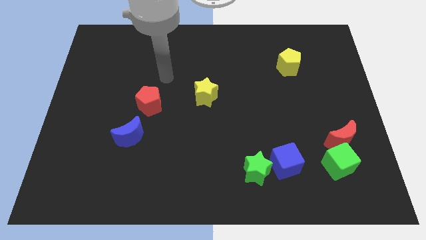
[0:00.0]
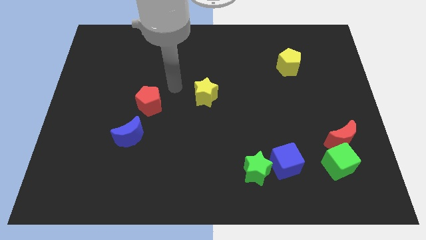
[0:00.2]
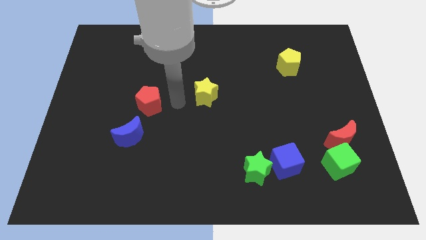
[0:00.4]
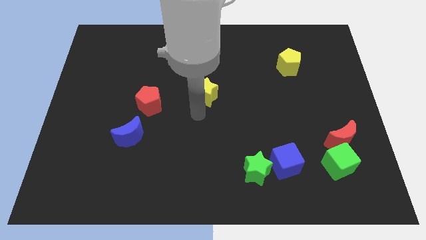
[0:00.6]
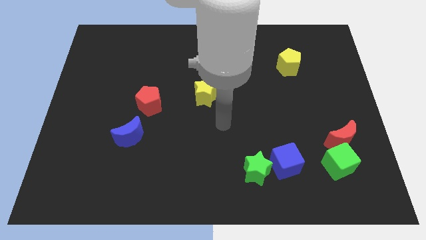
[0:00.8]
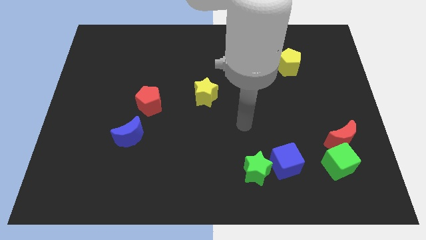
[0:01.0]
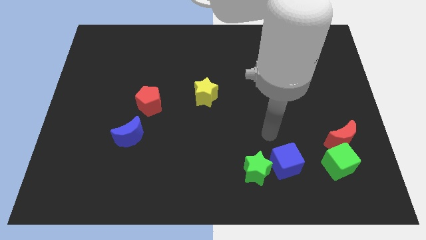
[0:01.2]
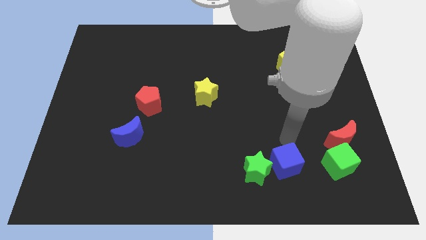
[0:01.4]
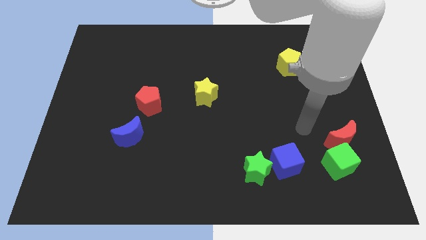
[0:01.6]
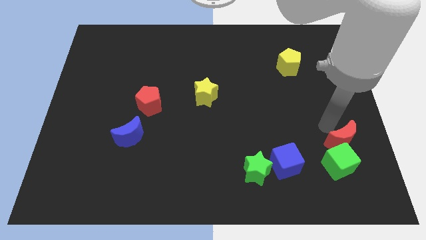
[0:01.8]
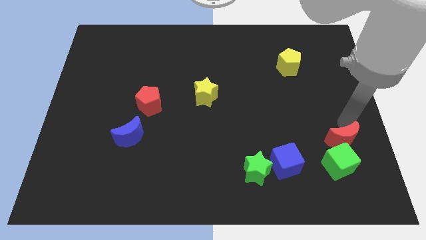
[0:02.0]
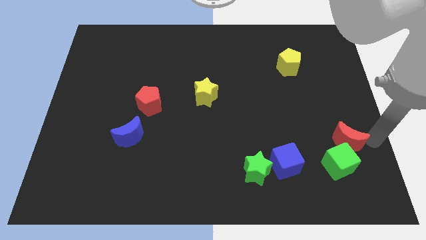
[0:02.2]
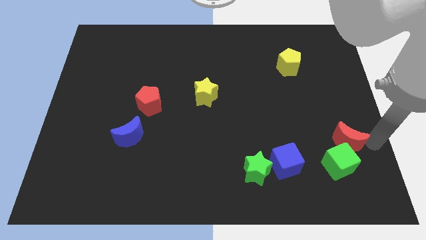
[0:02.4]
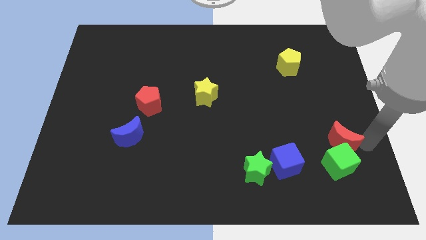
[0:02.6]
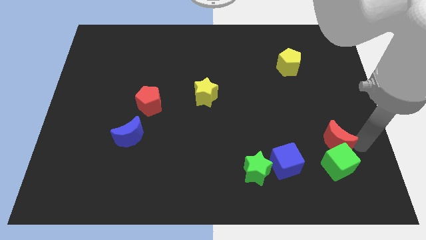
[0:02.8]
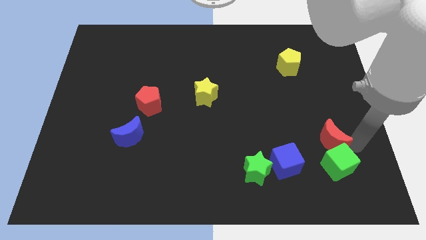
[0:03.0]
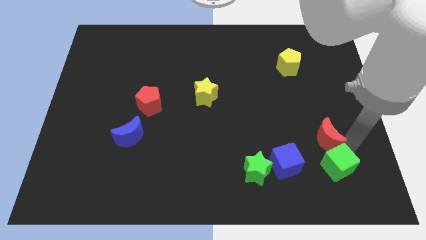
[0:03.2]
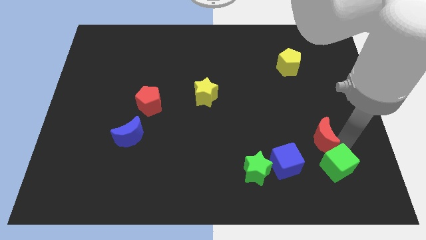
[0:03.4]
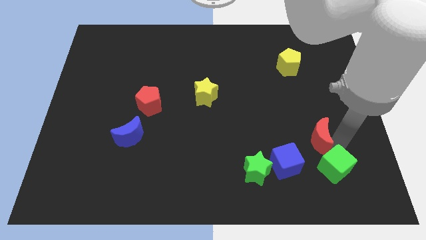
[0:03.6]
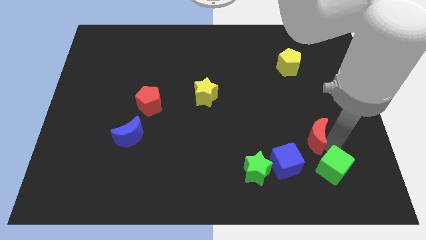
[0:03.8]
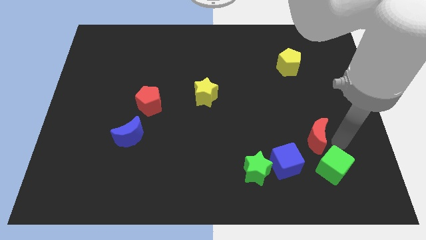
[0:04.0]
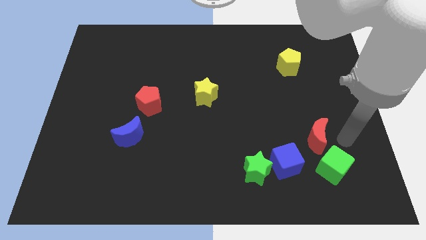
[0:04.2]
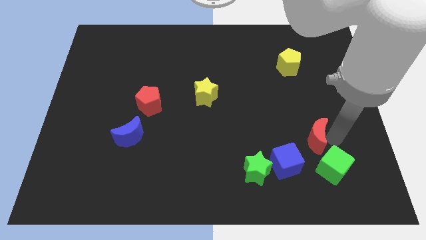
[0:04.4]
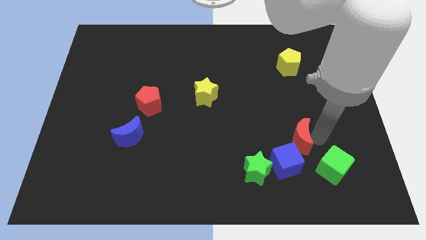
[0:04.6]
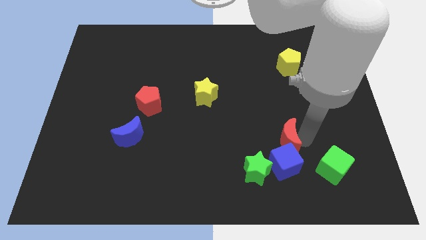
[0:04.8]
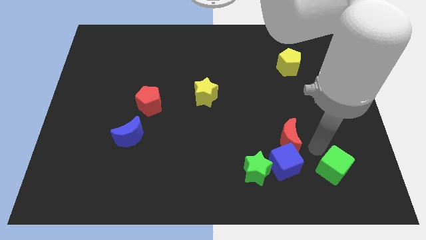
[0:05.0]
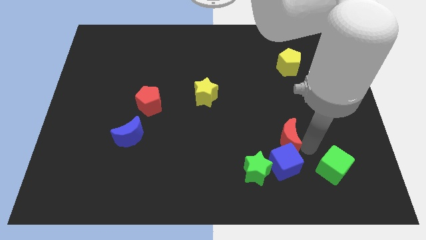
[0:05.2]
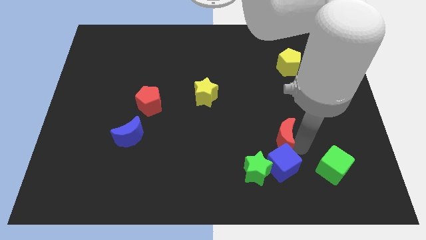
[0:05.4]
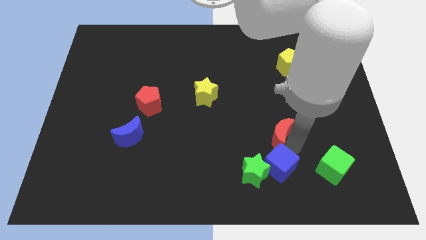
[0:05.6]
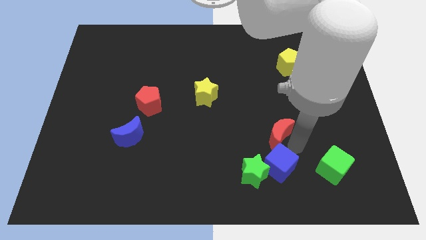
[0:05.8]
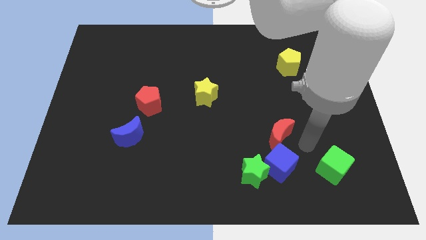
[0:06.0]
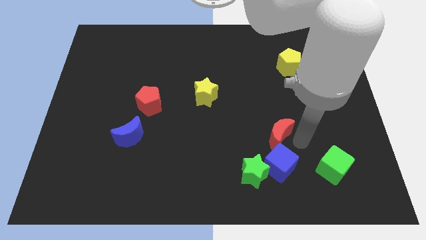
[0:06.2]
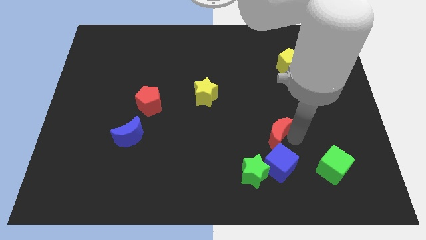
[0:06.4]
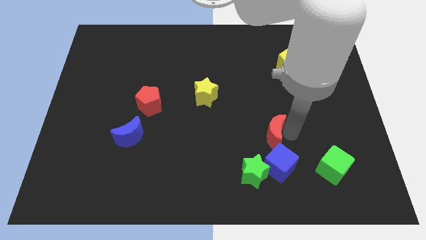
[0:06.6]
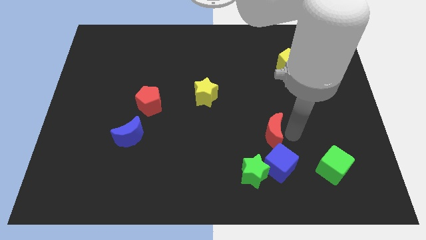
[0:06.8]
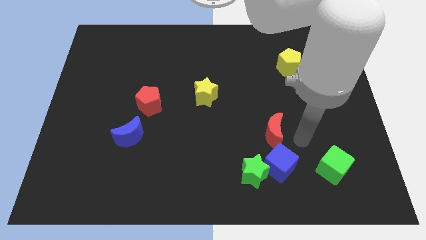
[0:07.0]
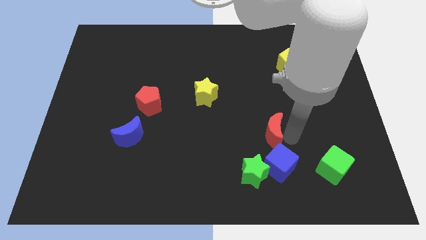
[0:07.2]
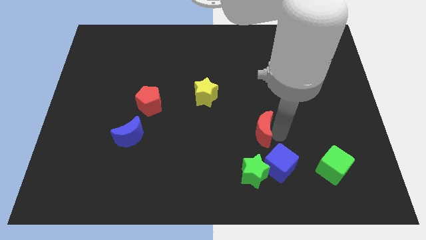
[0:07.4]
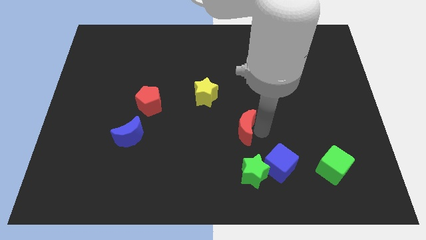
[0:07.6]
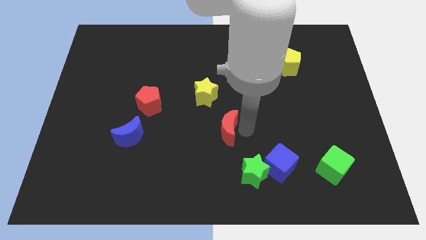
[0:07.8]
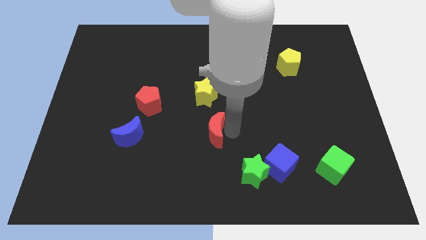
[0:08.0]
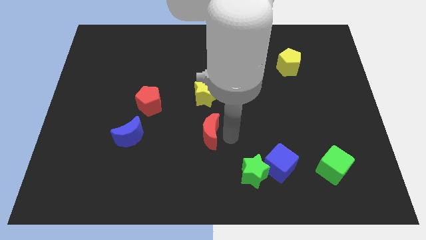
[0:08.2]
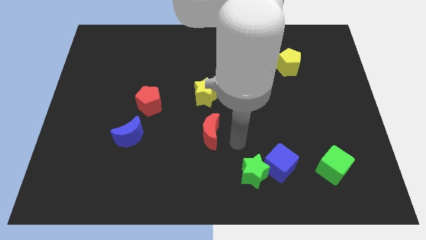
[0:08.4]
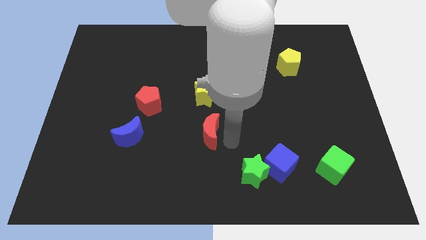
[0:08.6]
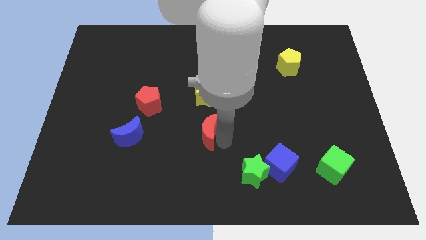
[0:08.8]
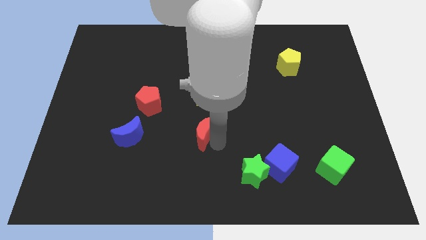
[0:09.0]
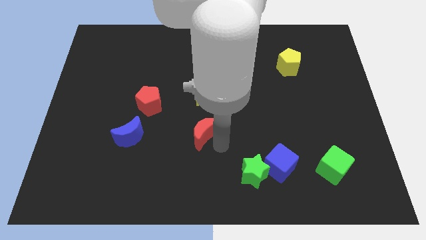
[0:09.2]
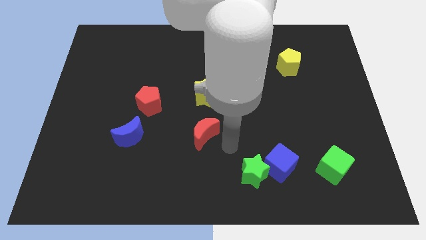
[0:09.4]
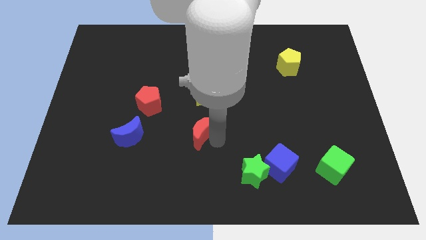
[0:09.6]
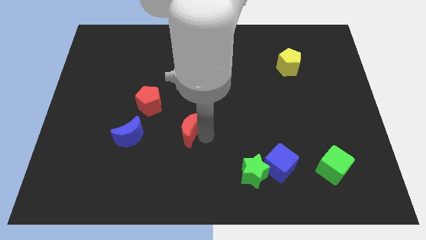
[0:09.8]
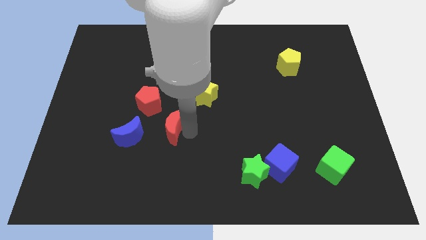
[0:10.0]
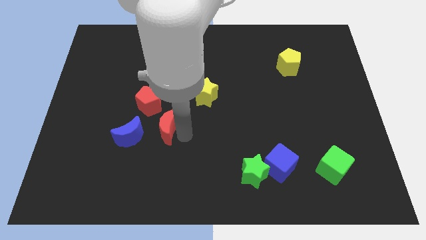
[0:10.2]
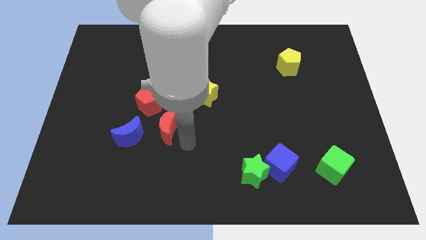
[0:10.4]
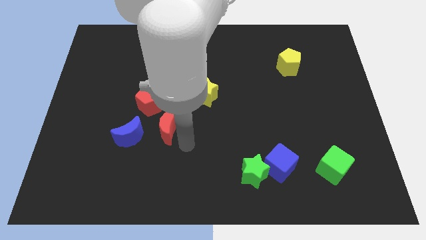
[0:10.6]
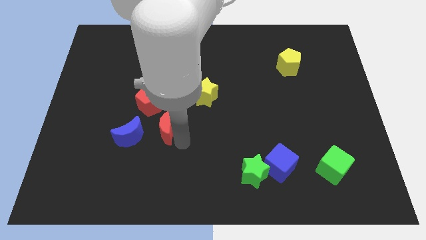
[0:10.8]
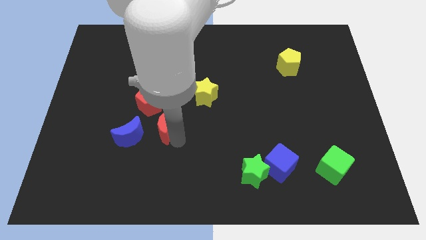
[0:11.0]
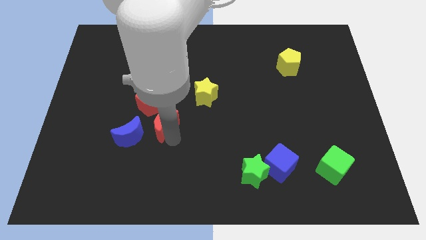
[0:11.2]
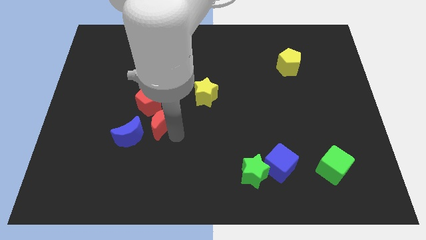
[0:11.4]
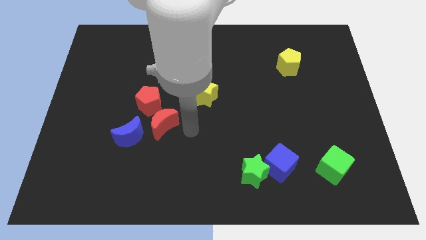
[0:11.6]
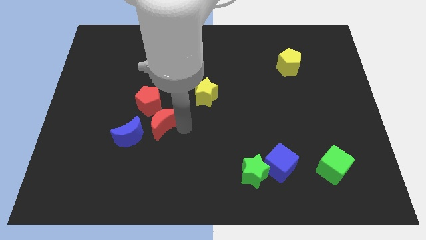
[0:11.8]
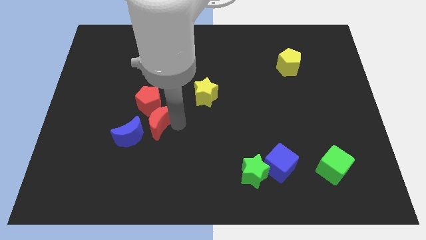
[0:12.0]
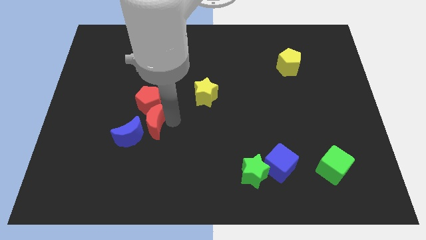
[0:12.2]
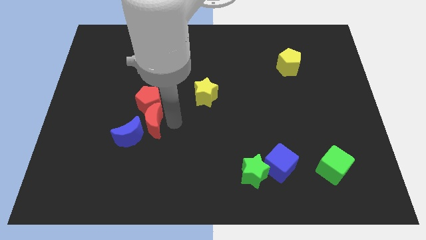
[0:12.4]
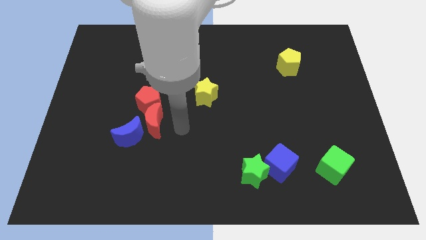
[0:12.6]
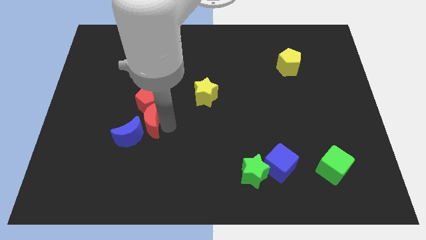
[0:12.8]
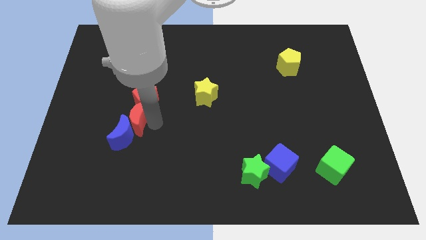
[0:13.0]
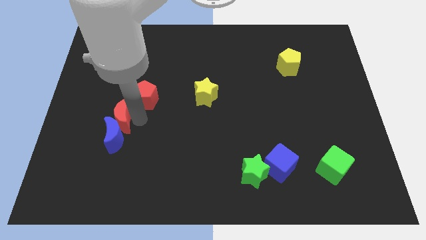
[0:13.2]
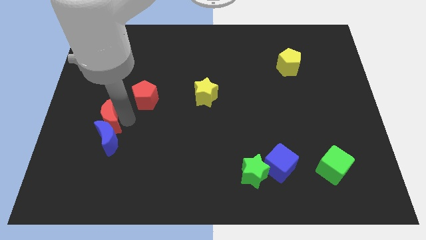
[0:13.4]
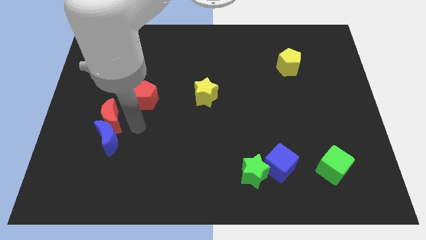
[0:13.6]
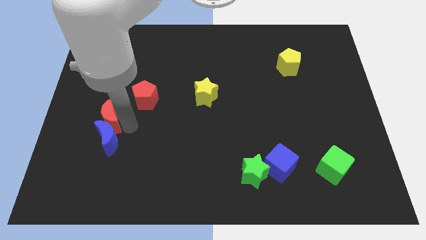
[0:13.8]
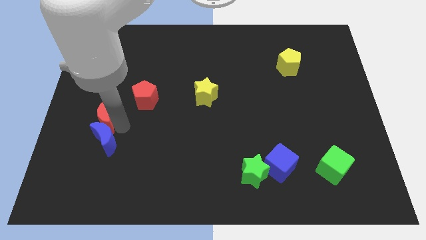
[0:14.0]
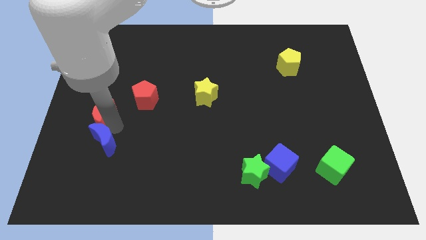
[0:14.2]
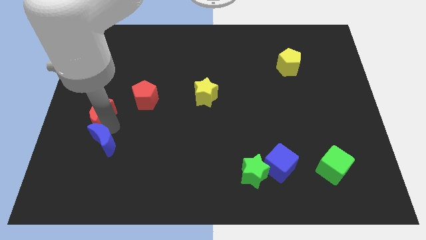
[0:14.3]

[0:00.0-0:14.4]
slide the red moon to the center left
